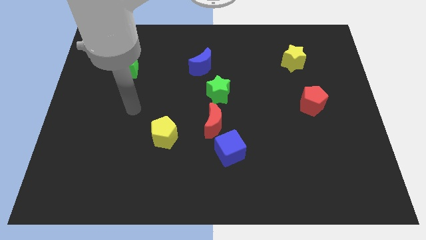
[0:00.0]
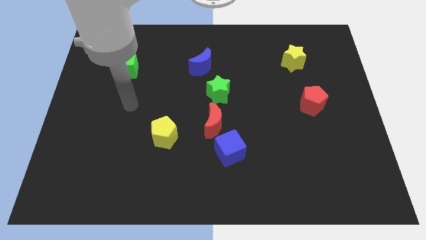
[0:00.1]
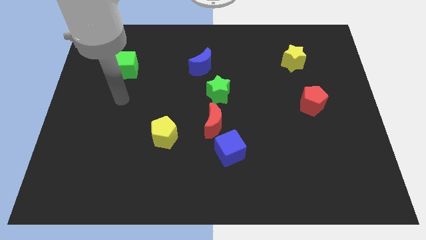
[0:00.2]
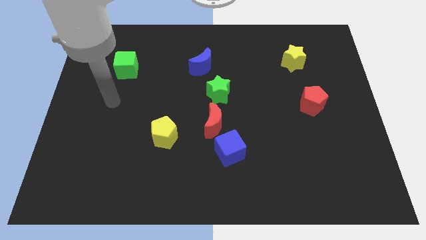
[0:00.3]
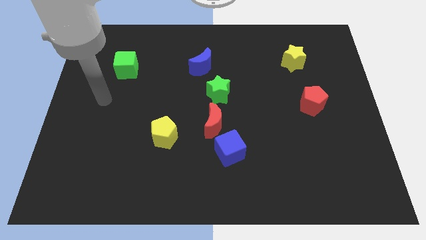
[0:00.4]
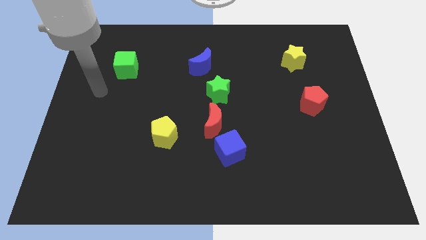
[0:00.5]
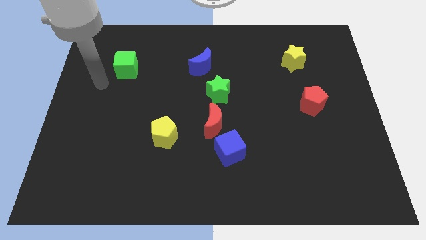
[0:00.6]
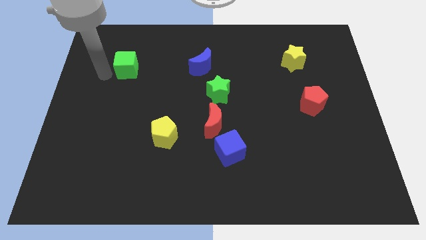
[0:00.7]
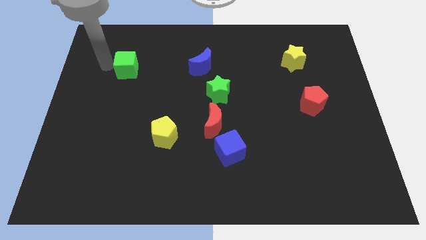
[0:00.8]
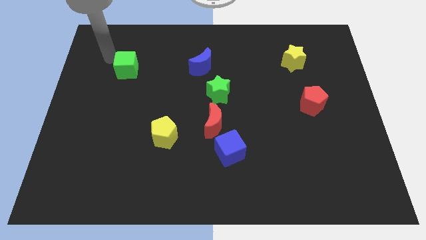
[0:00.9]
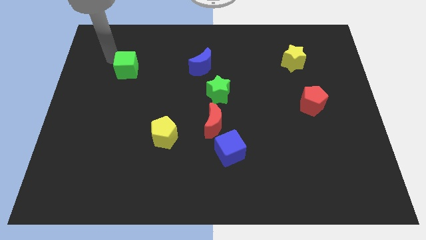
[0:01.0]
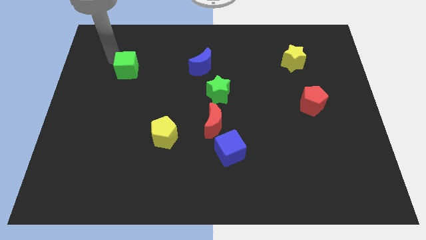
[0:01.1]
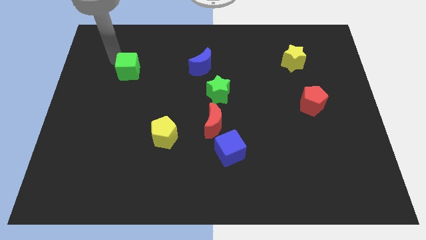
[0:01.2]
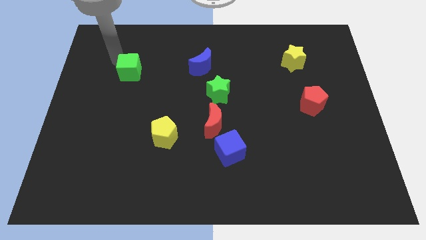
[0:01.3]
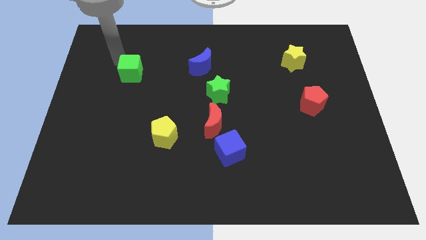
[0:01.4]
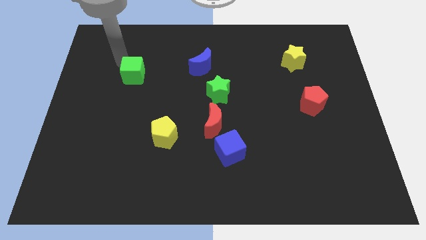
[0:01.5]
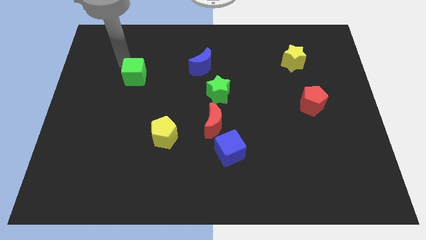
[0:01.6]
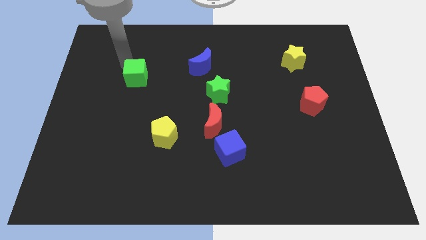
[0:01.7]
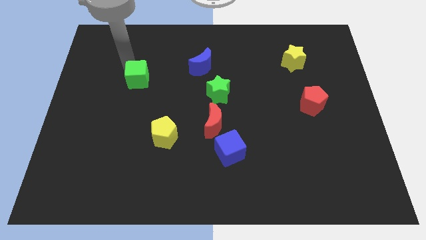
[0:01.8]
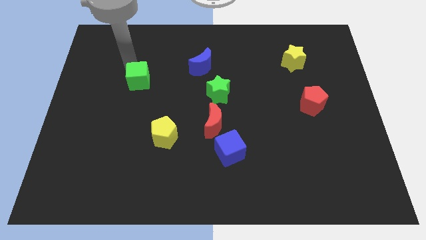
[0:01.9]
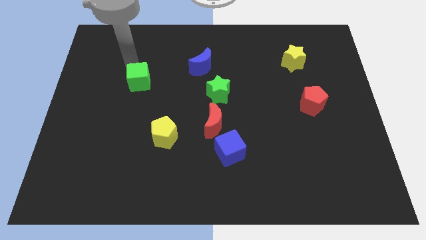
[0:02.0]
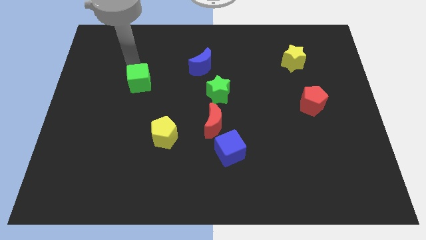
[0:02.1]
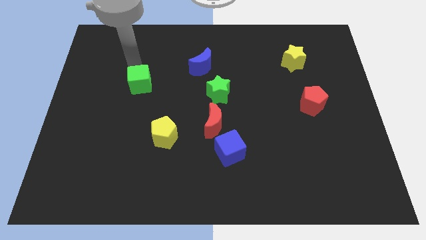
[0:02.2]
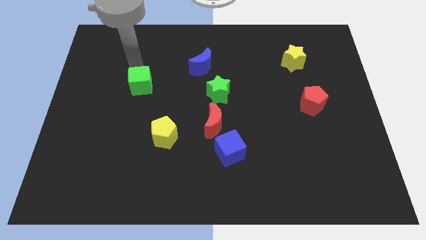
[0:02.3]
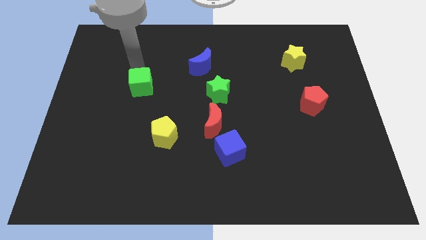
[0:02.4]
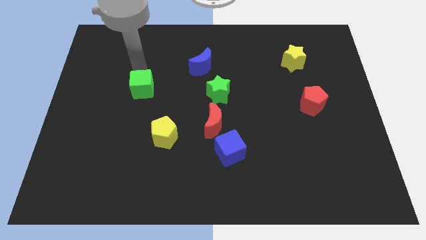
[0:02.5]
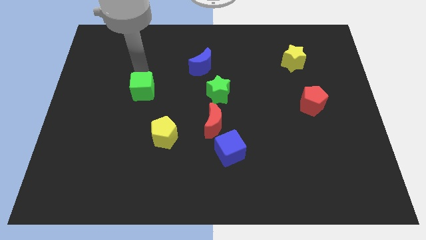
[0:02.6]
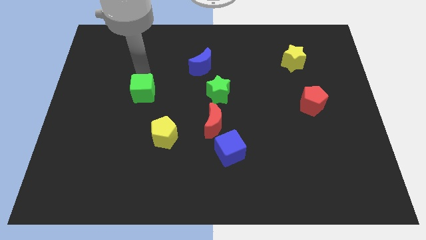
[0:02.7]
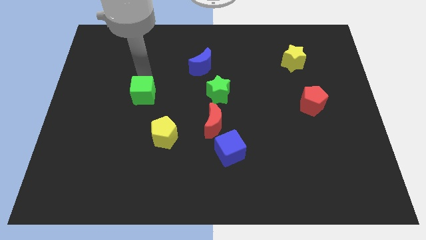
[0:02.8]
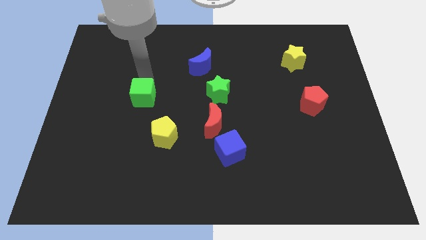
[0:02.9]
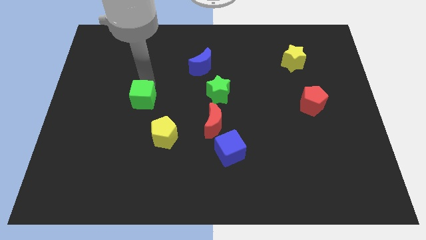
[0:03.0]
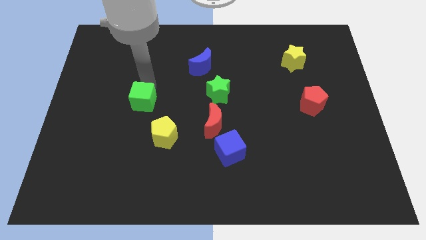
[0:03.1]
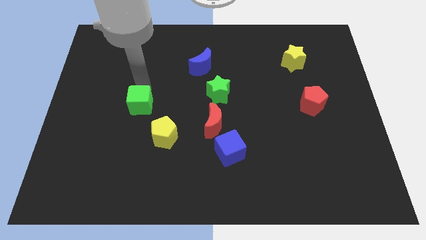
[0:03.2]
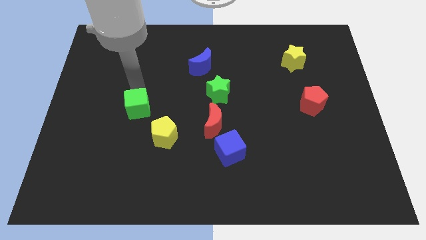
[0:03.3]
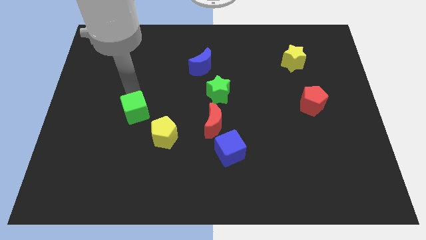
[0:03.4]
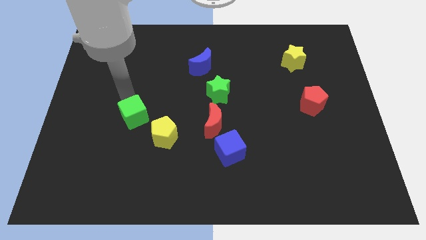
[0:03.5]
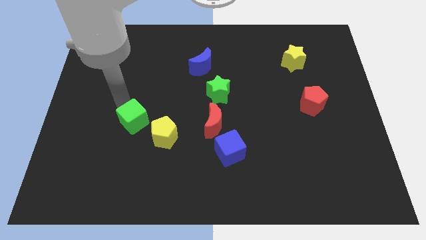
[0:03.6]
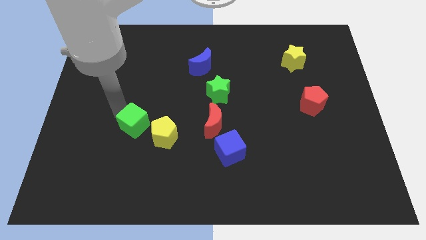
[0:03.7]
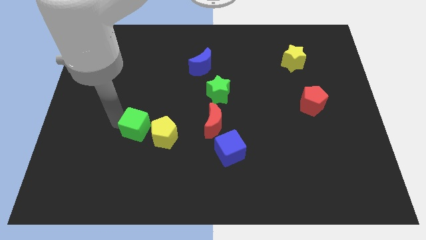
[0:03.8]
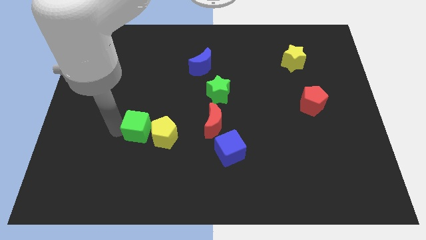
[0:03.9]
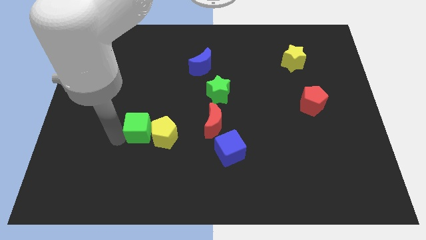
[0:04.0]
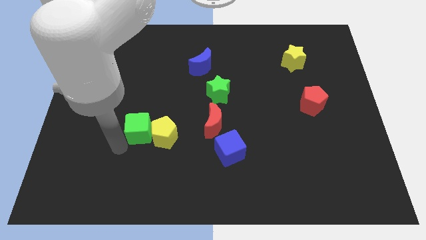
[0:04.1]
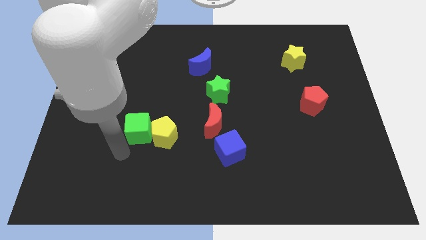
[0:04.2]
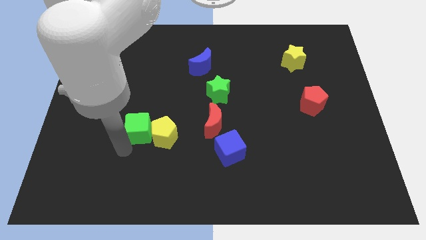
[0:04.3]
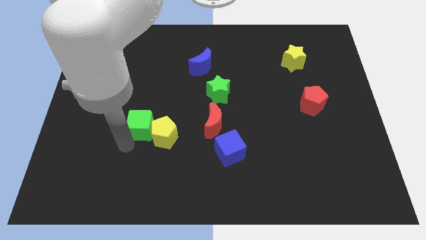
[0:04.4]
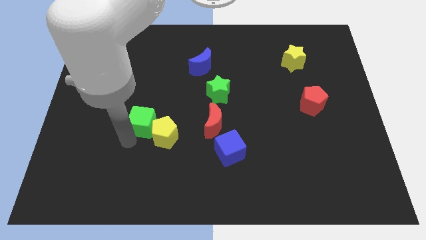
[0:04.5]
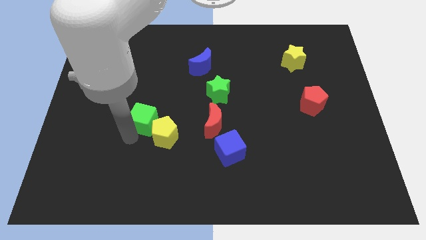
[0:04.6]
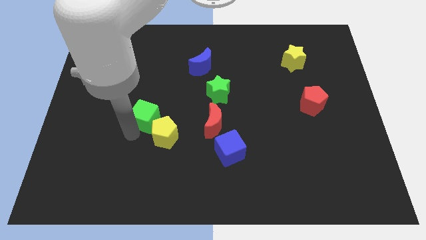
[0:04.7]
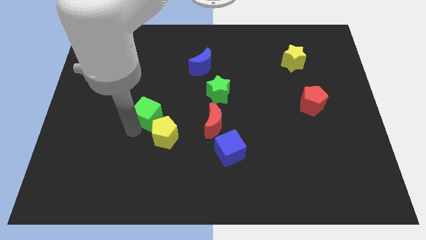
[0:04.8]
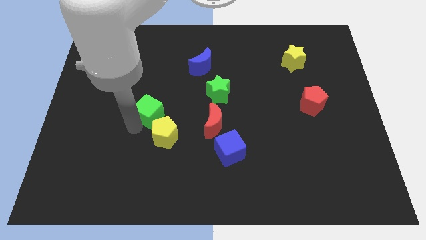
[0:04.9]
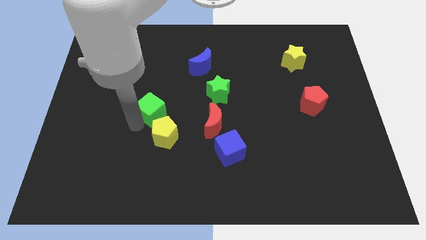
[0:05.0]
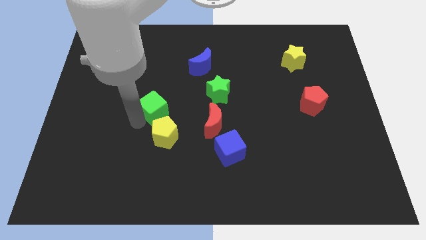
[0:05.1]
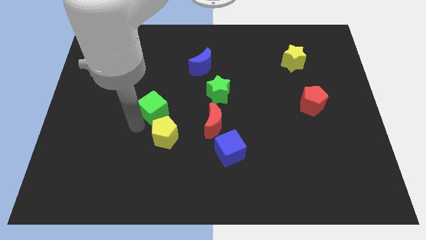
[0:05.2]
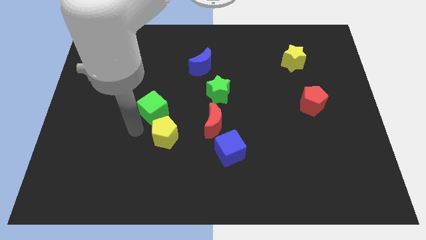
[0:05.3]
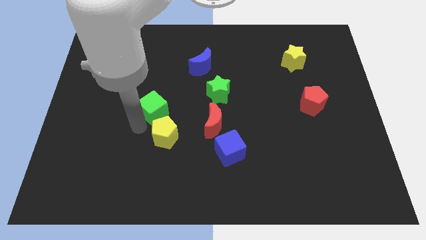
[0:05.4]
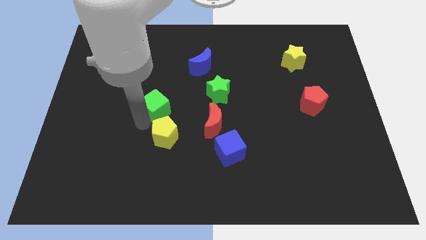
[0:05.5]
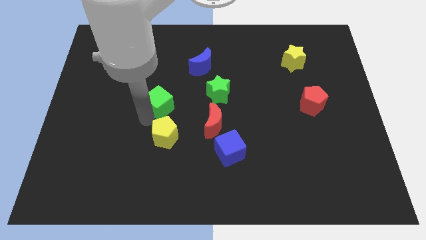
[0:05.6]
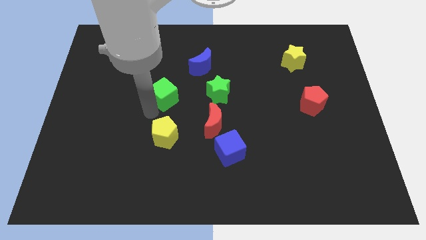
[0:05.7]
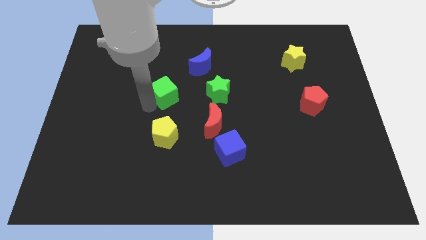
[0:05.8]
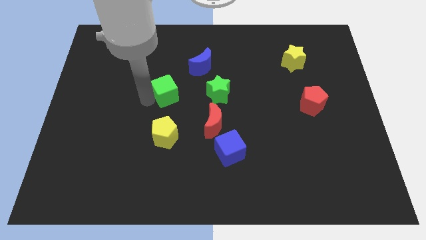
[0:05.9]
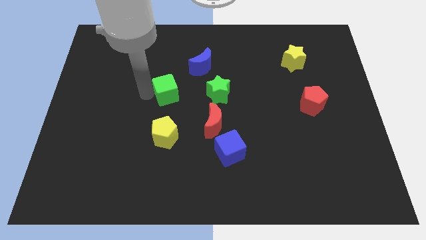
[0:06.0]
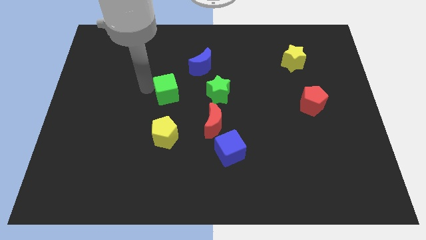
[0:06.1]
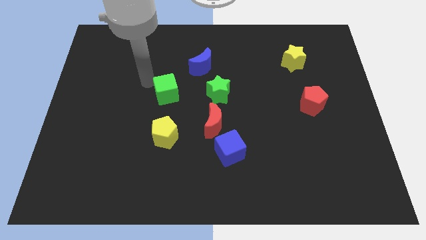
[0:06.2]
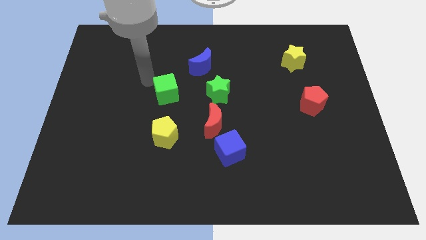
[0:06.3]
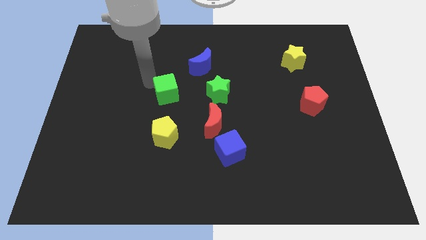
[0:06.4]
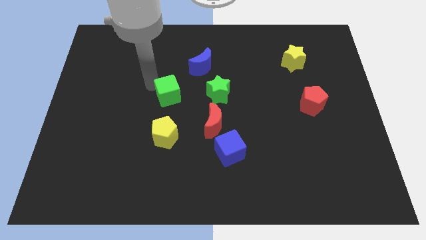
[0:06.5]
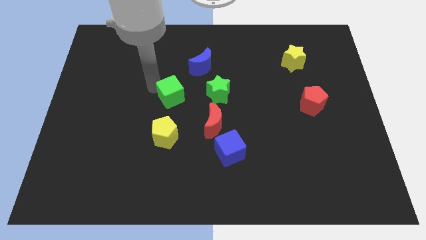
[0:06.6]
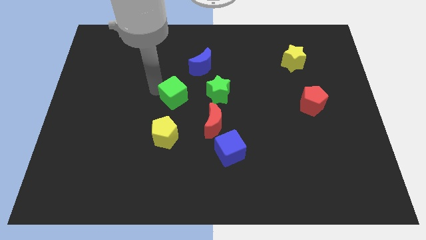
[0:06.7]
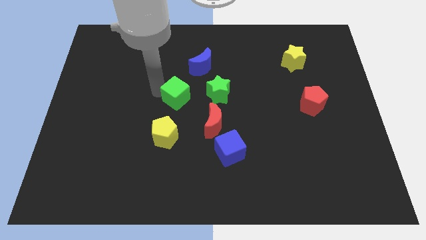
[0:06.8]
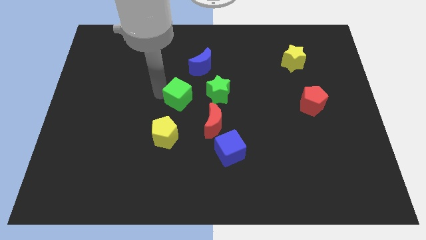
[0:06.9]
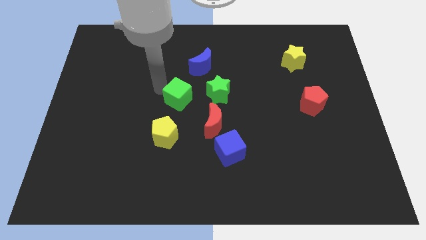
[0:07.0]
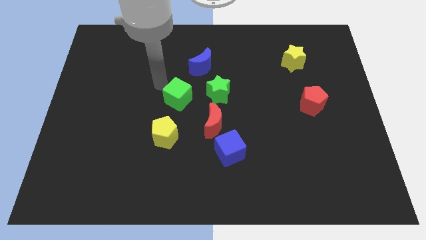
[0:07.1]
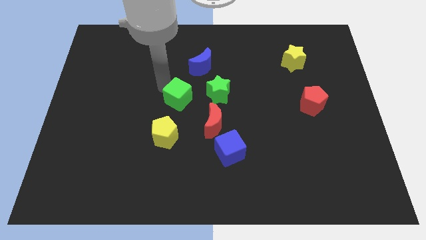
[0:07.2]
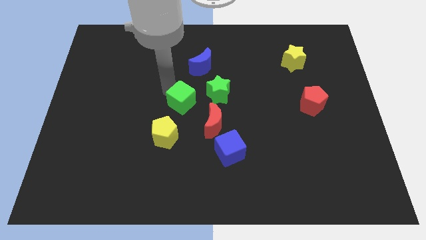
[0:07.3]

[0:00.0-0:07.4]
slide the green cube diagonally down and to the left of the green star
